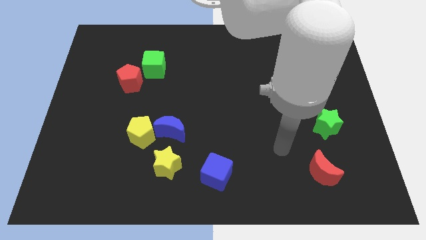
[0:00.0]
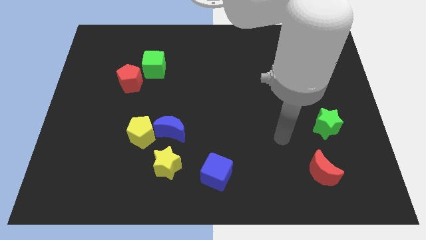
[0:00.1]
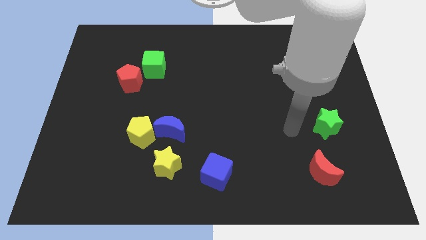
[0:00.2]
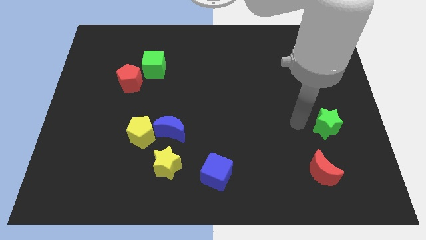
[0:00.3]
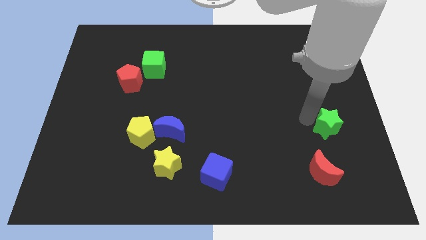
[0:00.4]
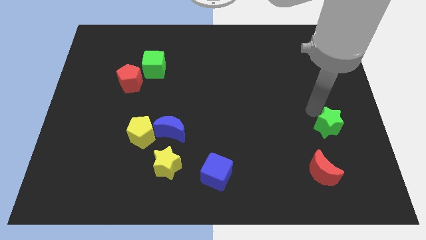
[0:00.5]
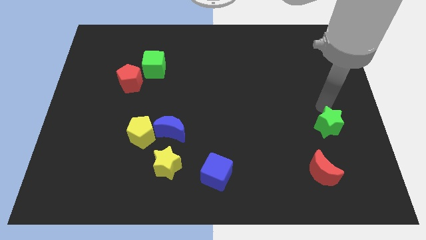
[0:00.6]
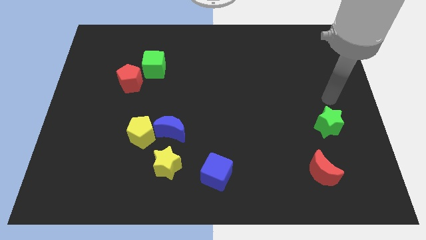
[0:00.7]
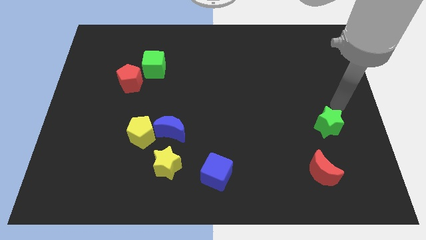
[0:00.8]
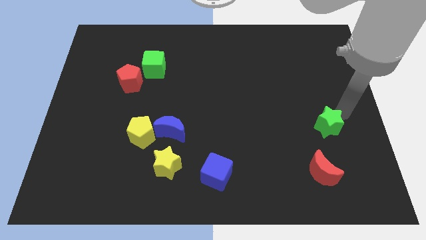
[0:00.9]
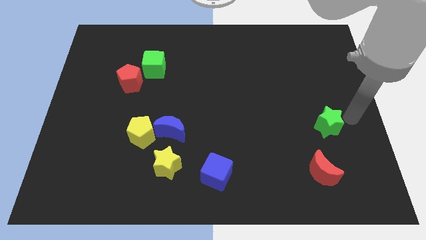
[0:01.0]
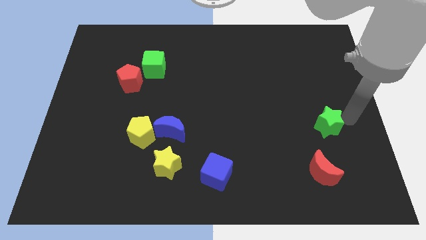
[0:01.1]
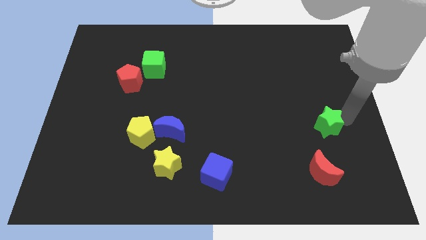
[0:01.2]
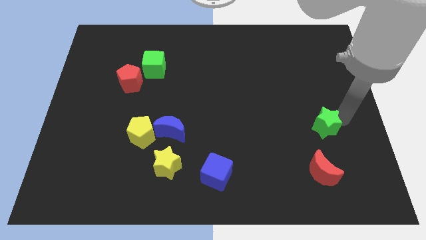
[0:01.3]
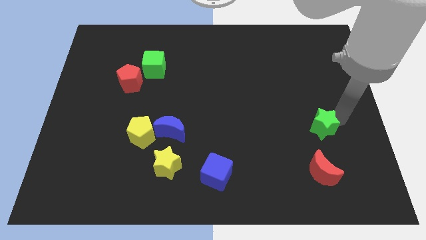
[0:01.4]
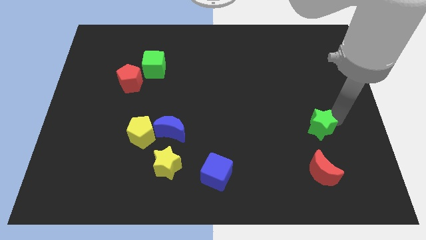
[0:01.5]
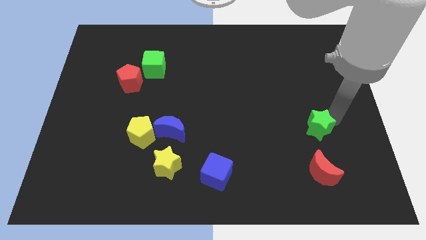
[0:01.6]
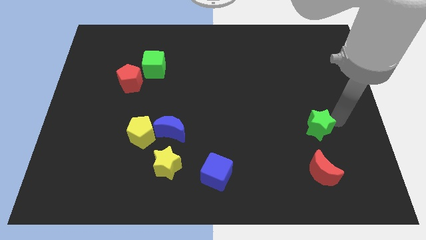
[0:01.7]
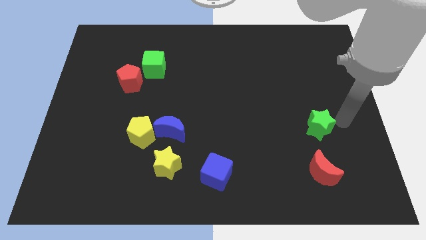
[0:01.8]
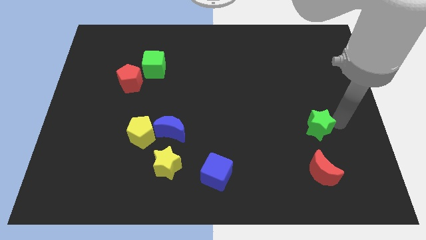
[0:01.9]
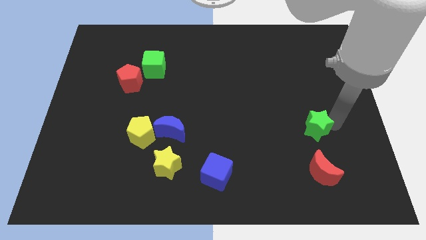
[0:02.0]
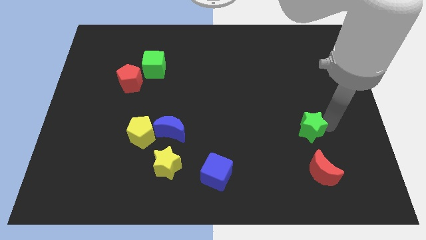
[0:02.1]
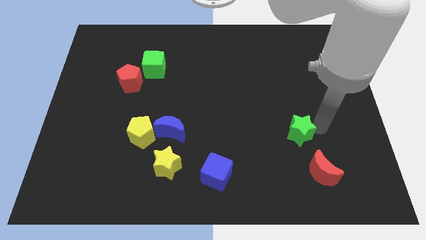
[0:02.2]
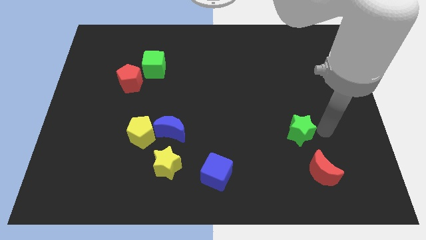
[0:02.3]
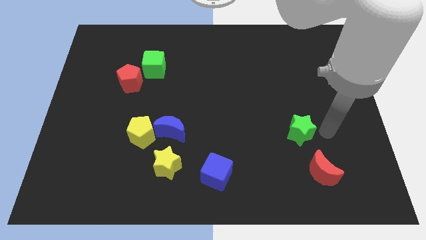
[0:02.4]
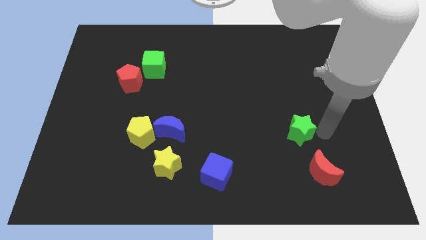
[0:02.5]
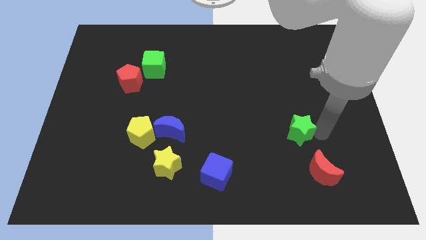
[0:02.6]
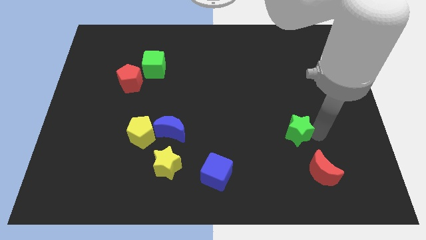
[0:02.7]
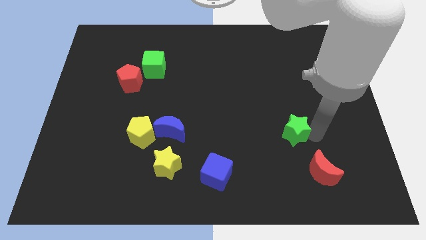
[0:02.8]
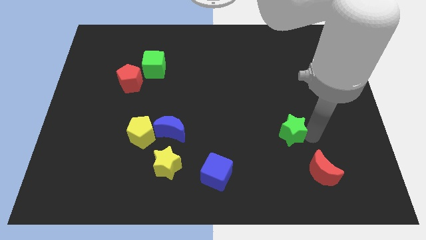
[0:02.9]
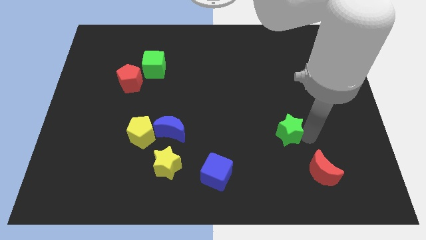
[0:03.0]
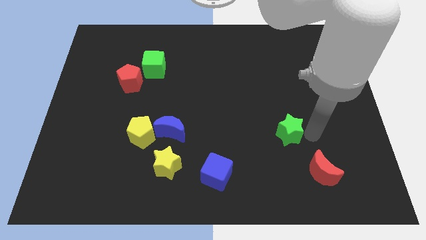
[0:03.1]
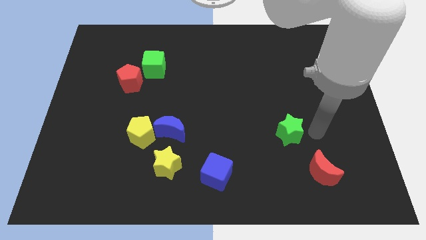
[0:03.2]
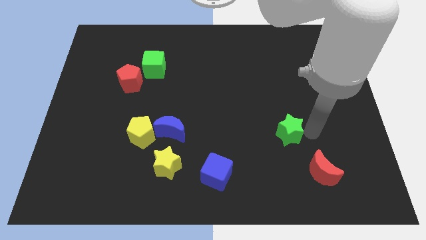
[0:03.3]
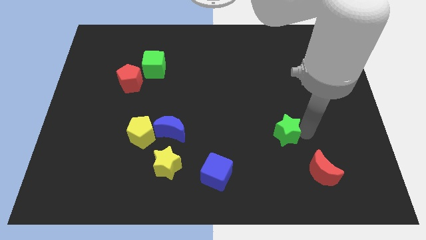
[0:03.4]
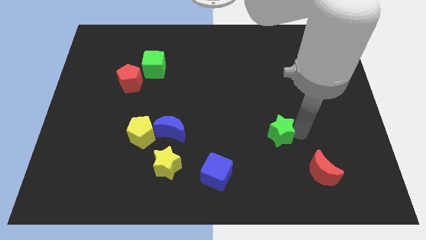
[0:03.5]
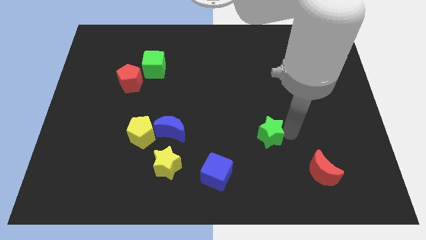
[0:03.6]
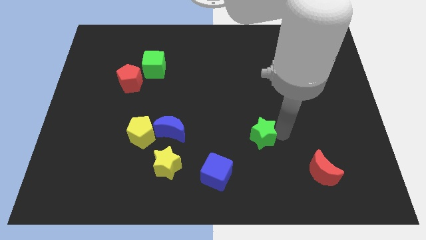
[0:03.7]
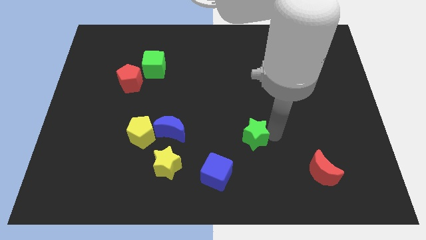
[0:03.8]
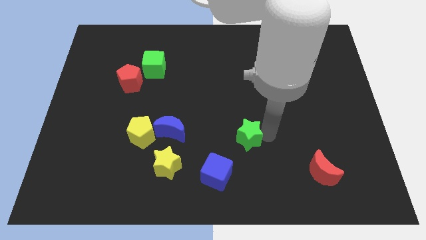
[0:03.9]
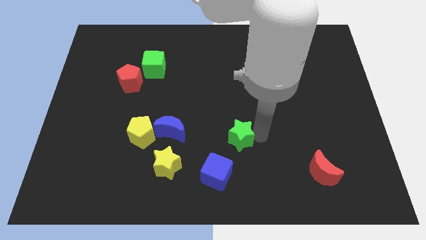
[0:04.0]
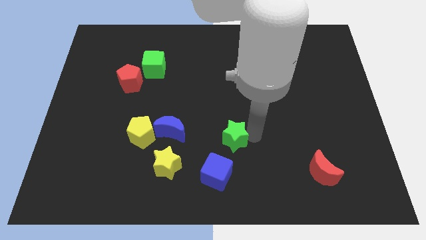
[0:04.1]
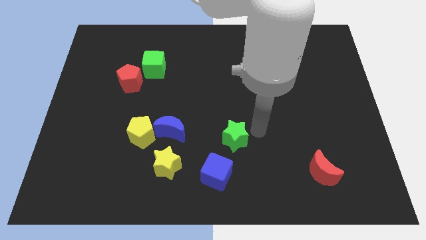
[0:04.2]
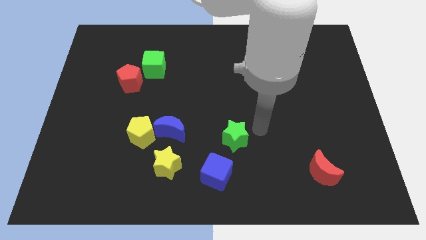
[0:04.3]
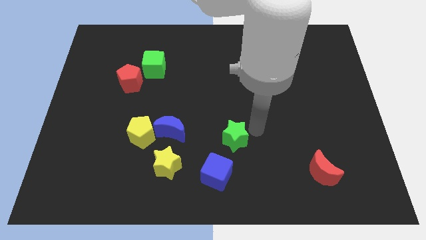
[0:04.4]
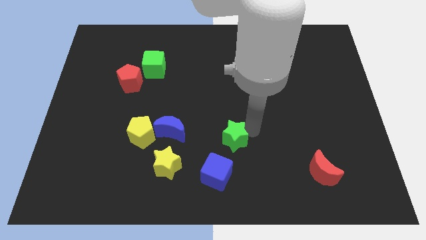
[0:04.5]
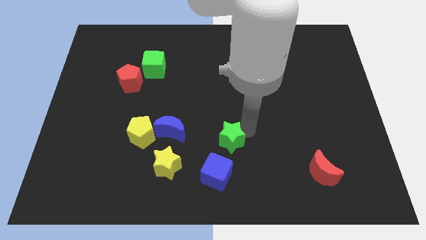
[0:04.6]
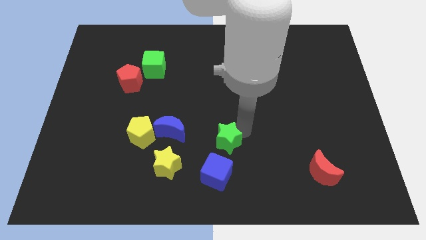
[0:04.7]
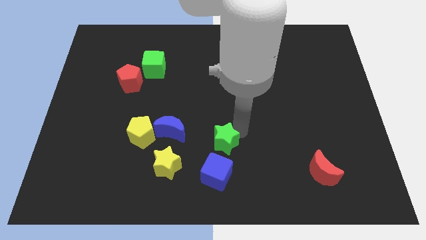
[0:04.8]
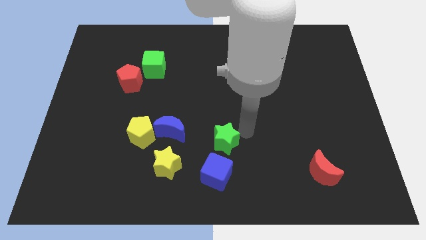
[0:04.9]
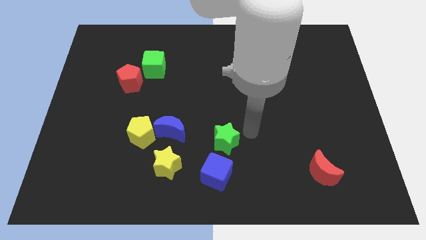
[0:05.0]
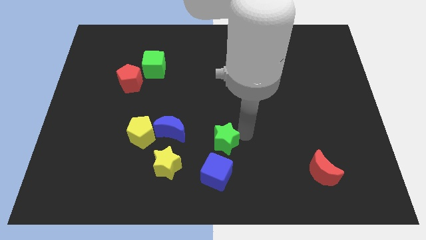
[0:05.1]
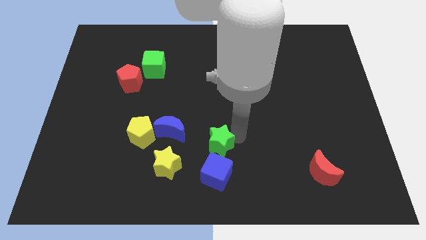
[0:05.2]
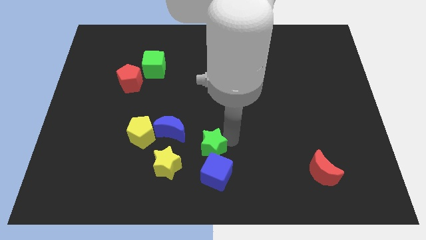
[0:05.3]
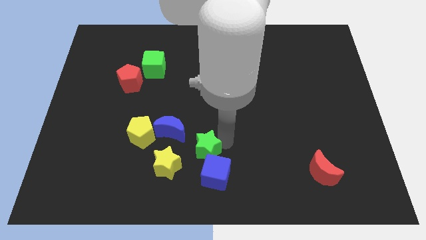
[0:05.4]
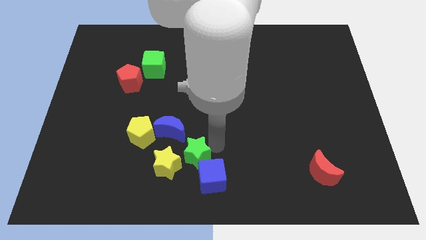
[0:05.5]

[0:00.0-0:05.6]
put the green star next to the yellow star

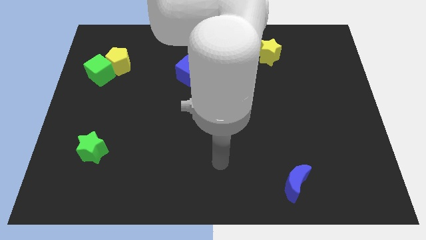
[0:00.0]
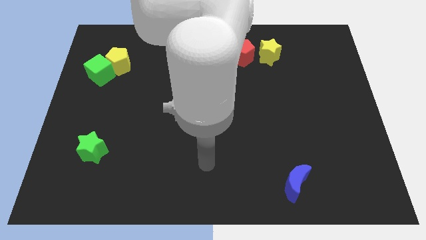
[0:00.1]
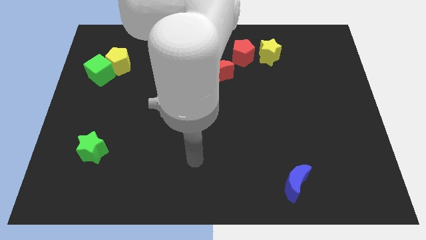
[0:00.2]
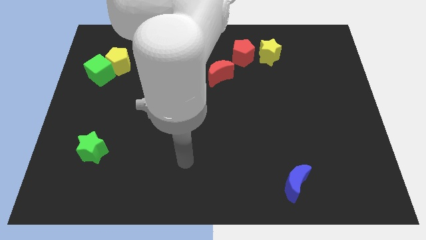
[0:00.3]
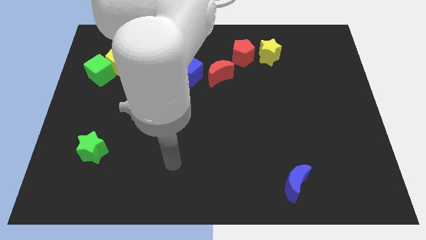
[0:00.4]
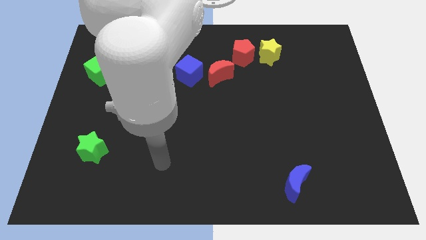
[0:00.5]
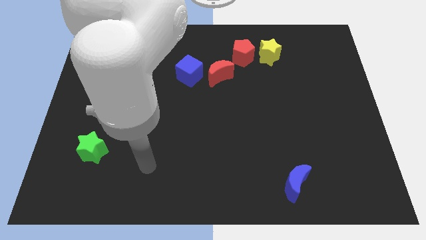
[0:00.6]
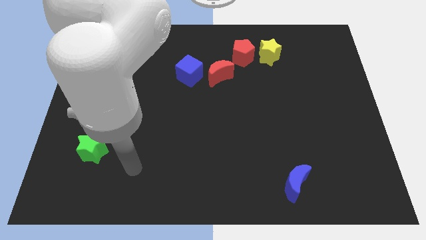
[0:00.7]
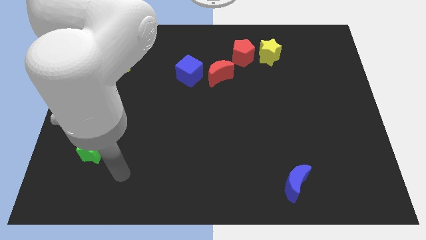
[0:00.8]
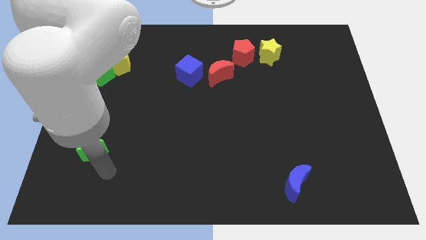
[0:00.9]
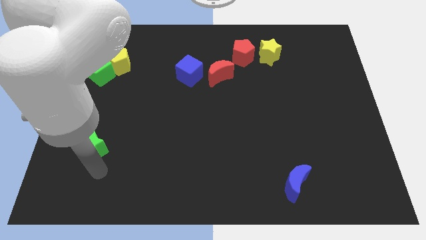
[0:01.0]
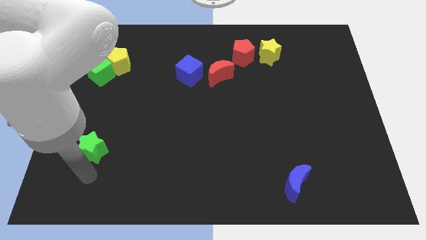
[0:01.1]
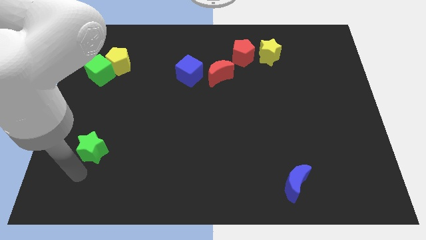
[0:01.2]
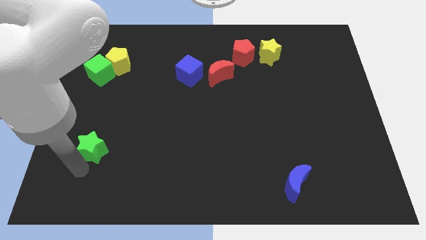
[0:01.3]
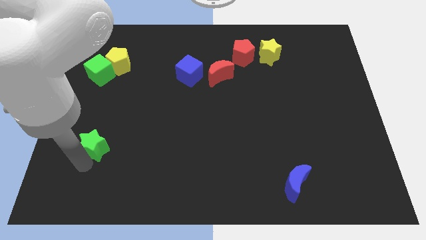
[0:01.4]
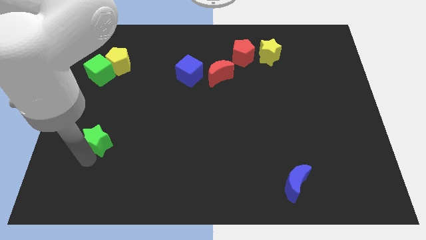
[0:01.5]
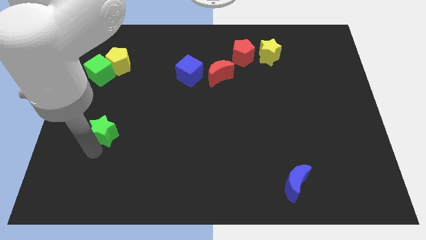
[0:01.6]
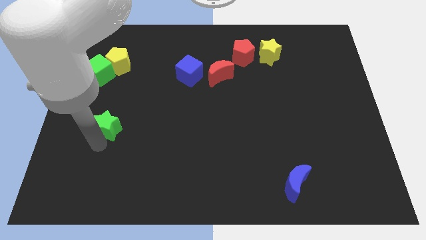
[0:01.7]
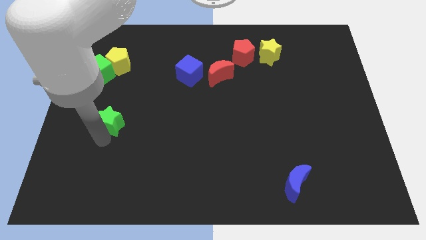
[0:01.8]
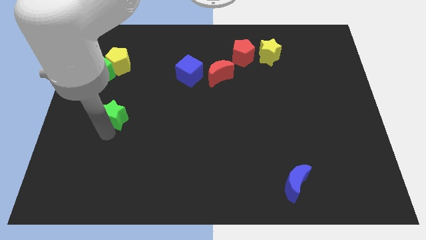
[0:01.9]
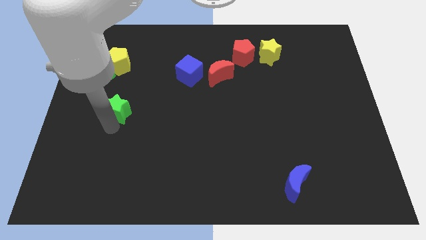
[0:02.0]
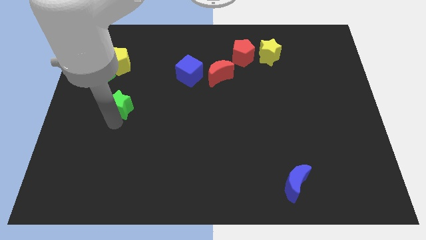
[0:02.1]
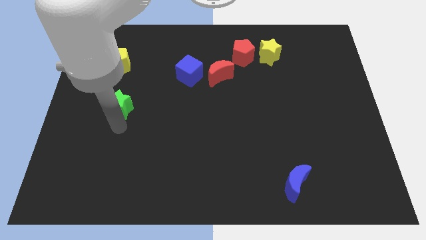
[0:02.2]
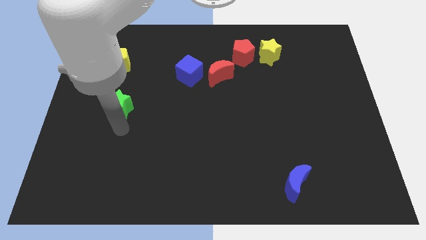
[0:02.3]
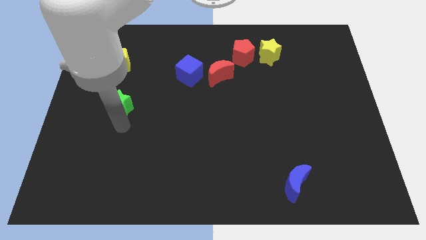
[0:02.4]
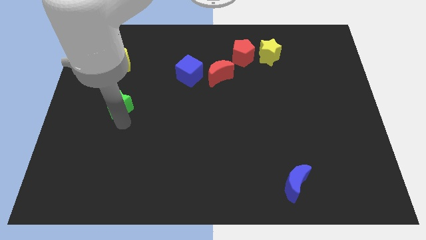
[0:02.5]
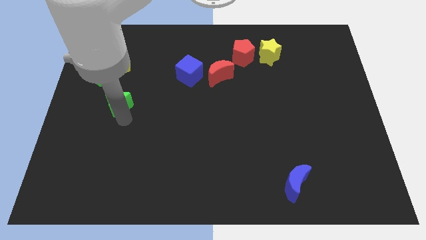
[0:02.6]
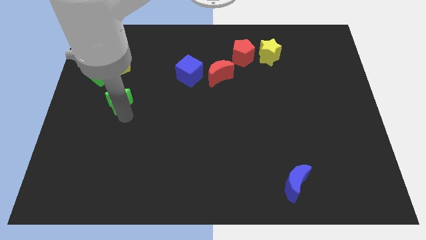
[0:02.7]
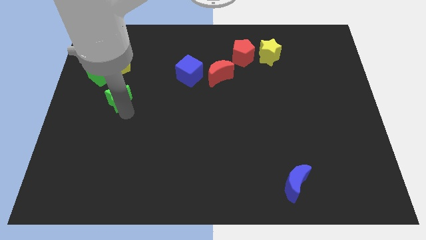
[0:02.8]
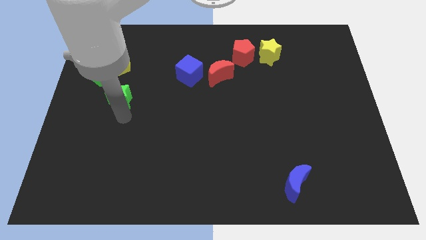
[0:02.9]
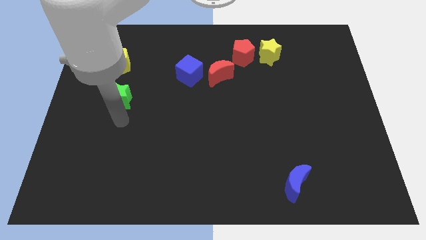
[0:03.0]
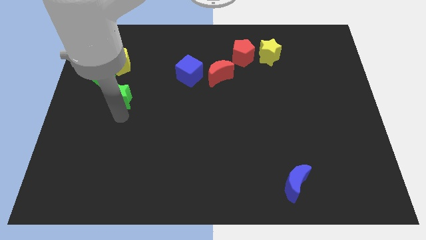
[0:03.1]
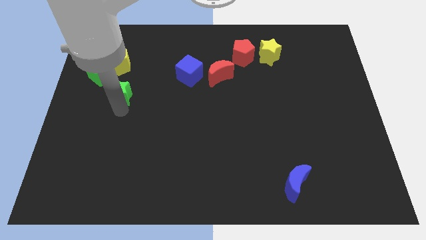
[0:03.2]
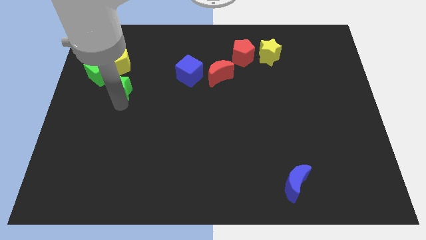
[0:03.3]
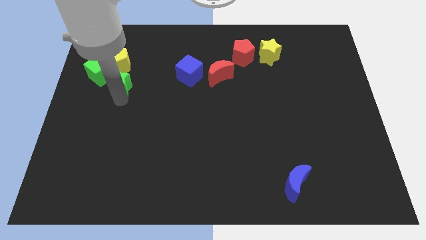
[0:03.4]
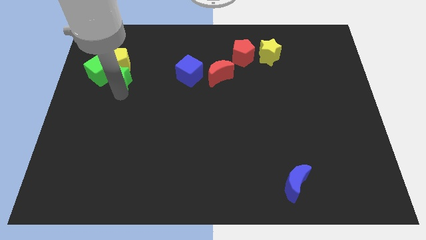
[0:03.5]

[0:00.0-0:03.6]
put the green star next to the yellow pentagon
